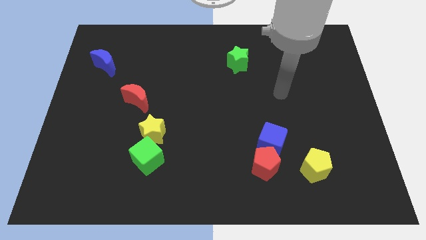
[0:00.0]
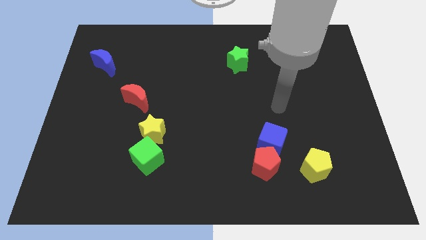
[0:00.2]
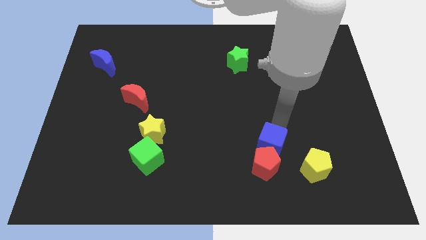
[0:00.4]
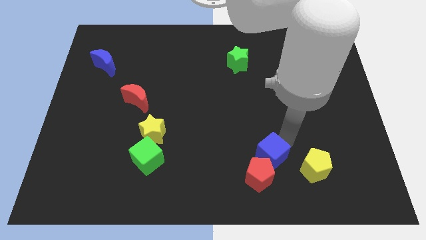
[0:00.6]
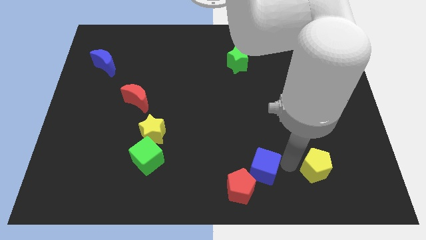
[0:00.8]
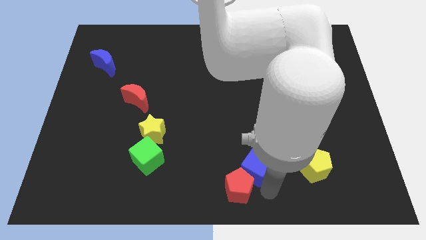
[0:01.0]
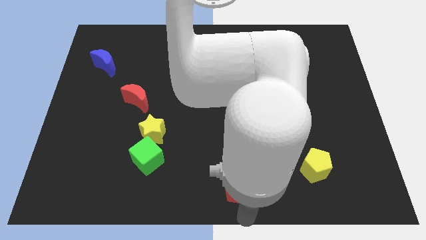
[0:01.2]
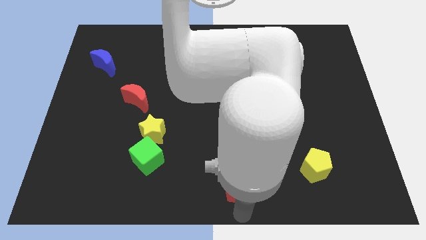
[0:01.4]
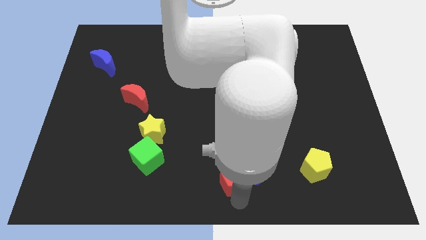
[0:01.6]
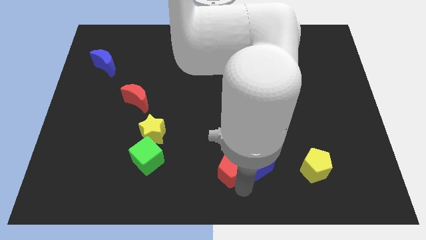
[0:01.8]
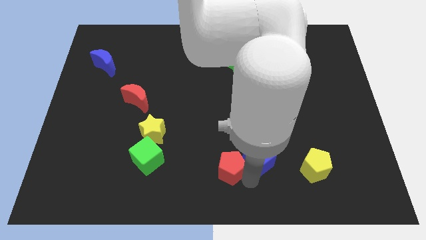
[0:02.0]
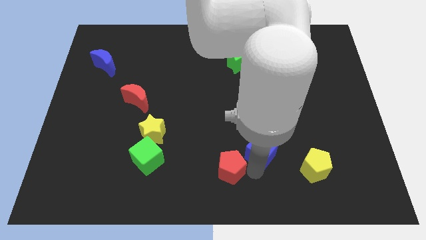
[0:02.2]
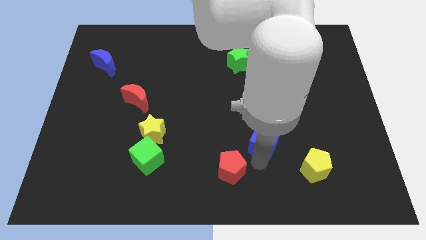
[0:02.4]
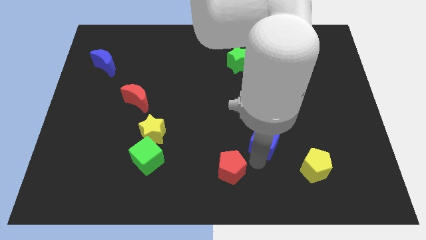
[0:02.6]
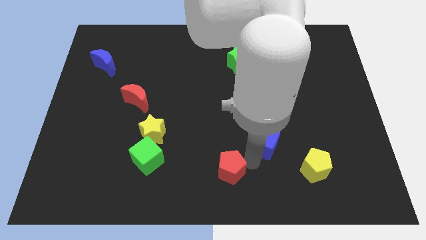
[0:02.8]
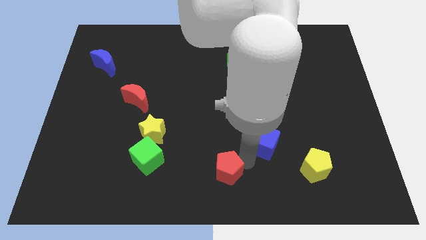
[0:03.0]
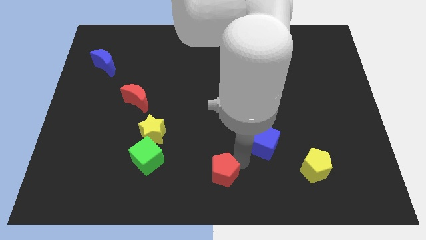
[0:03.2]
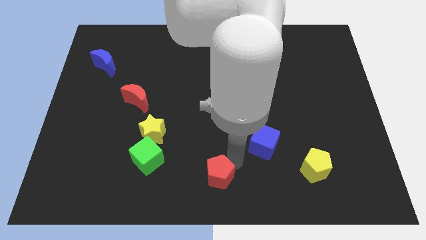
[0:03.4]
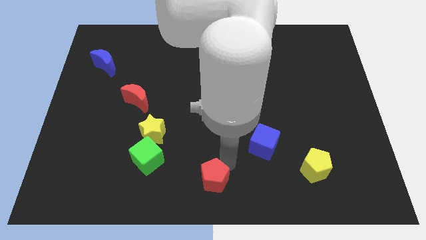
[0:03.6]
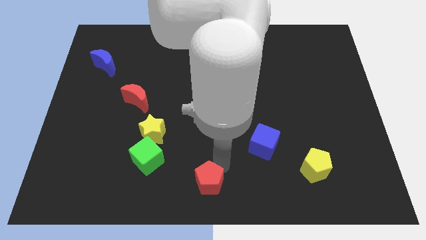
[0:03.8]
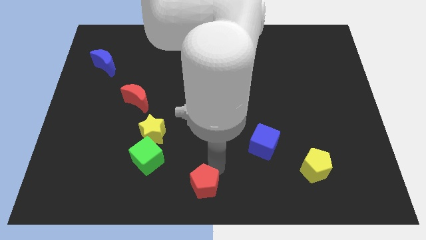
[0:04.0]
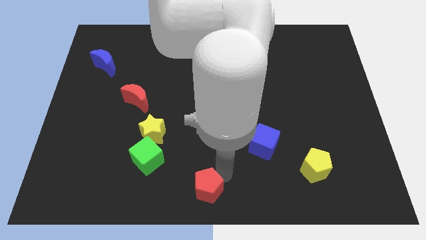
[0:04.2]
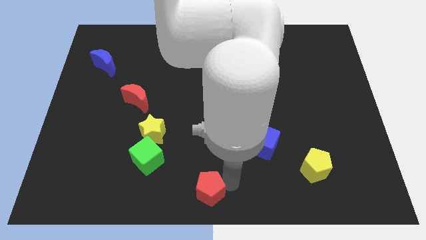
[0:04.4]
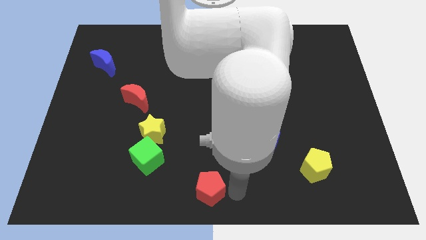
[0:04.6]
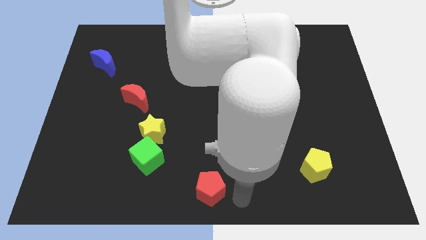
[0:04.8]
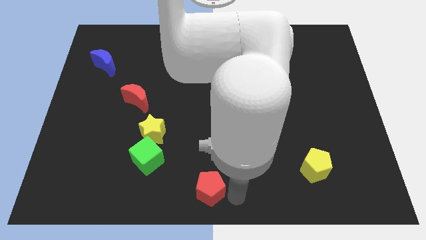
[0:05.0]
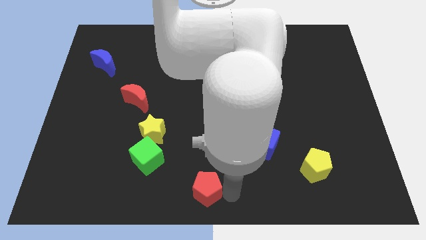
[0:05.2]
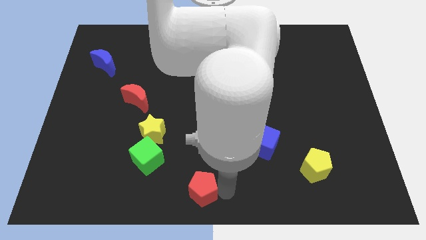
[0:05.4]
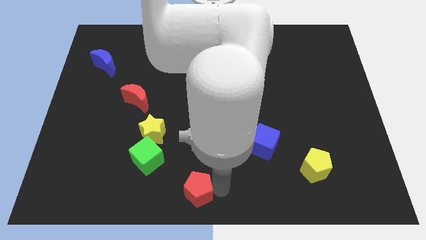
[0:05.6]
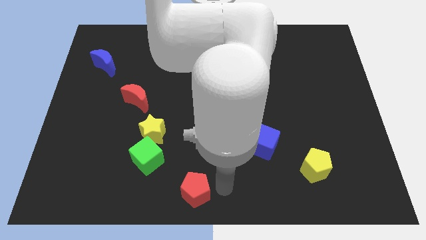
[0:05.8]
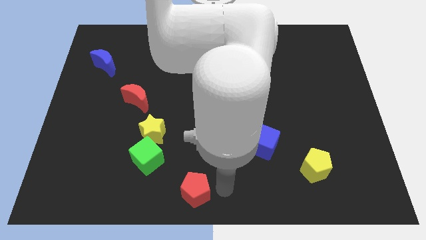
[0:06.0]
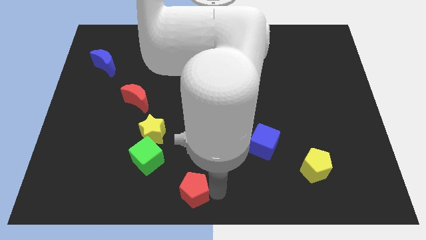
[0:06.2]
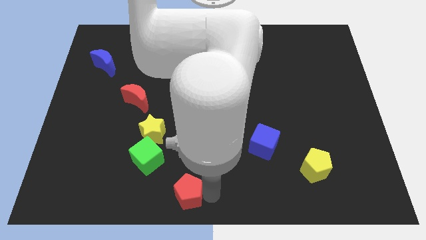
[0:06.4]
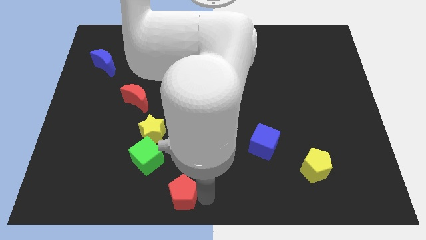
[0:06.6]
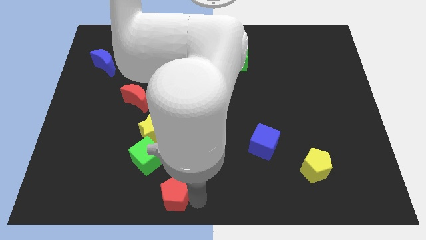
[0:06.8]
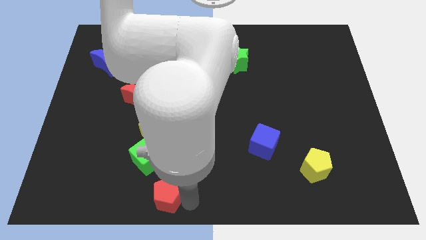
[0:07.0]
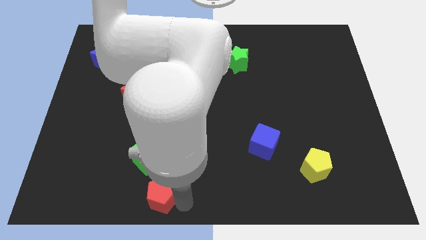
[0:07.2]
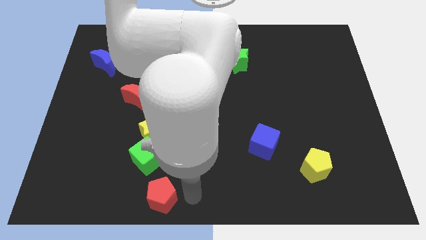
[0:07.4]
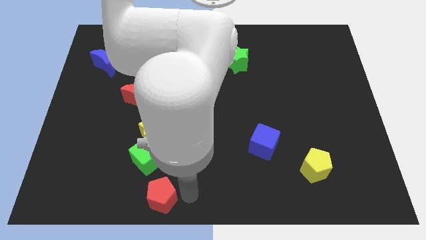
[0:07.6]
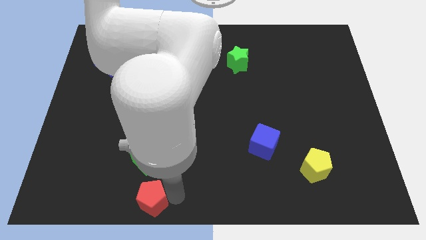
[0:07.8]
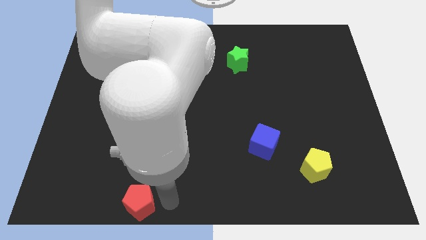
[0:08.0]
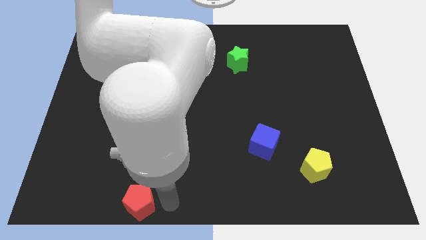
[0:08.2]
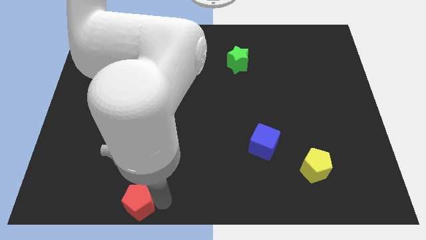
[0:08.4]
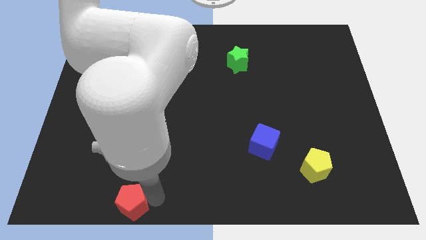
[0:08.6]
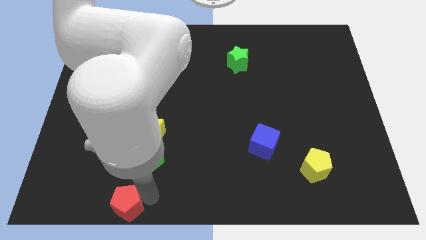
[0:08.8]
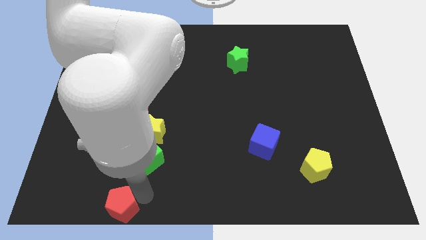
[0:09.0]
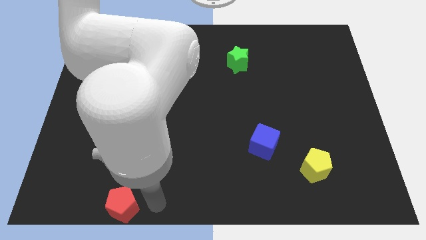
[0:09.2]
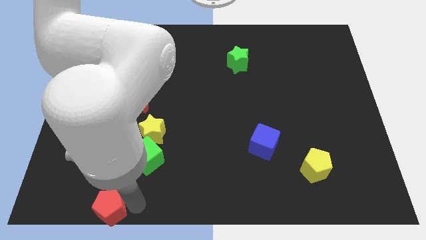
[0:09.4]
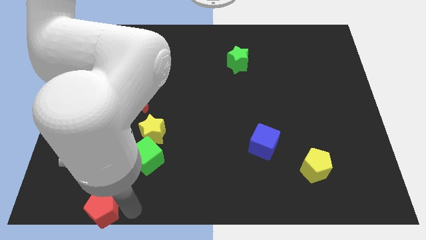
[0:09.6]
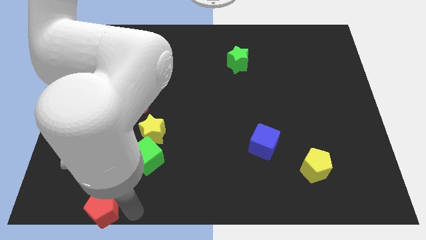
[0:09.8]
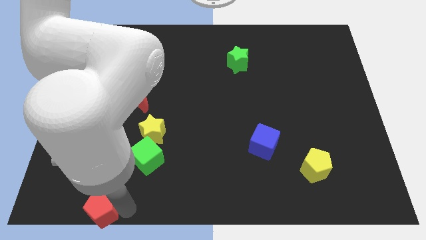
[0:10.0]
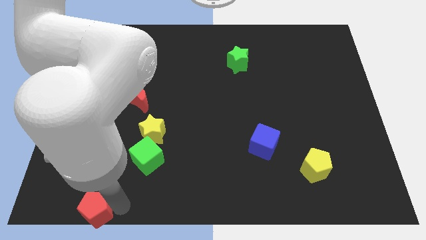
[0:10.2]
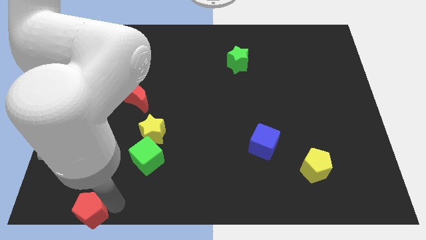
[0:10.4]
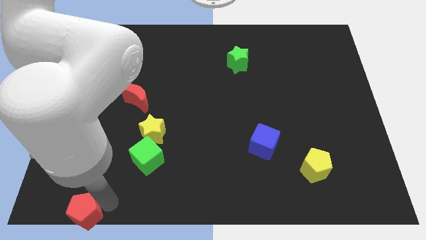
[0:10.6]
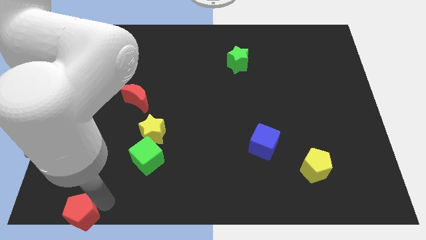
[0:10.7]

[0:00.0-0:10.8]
push the red pentagon to the bottom left

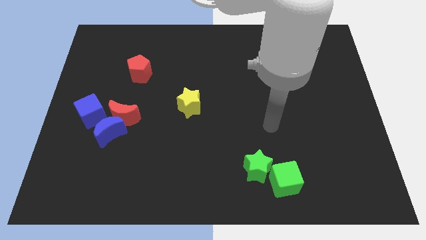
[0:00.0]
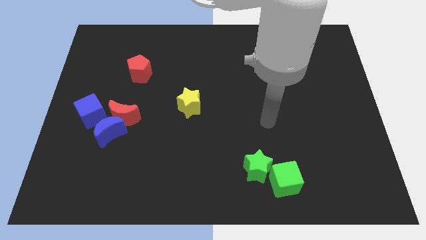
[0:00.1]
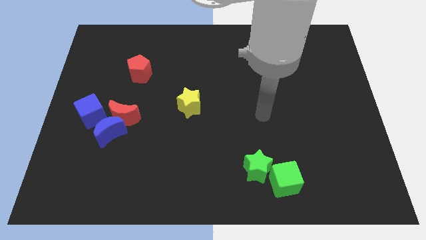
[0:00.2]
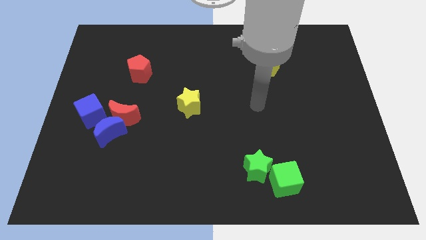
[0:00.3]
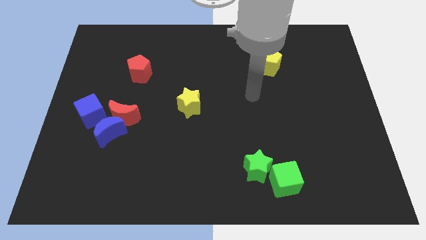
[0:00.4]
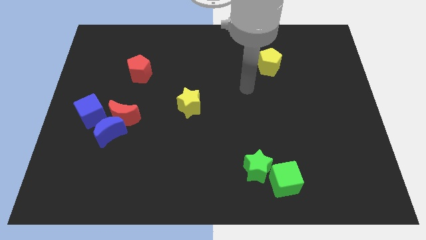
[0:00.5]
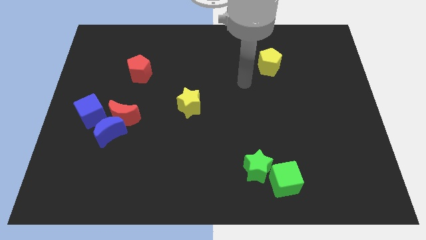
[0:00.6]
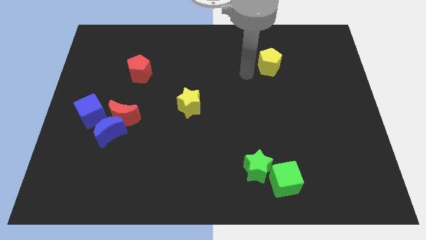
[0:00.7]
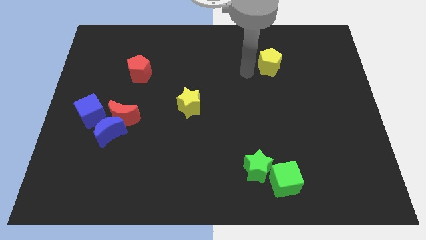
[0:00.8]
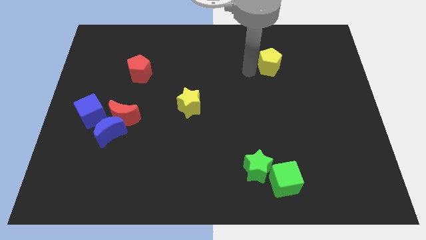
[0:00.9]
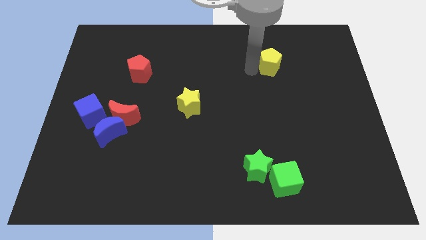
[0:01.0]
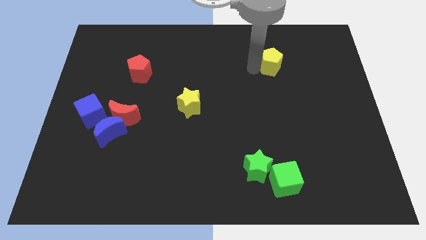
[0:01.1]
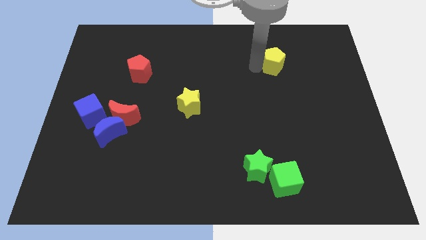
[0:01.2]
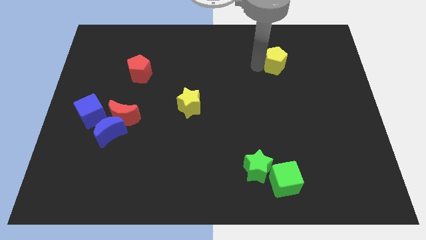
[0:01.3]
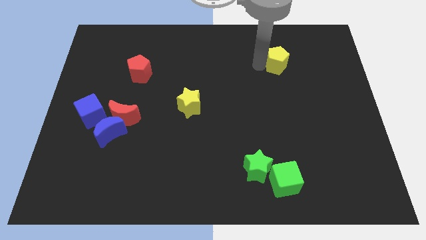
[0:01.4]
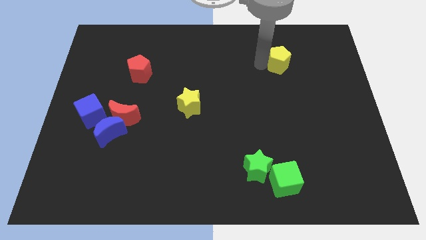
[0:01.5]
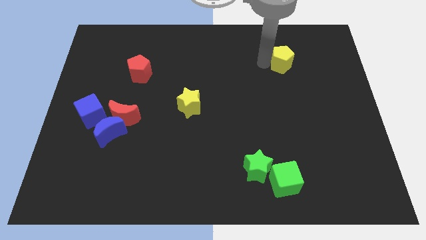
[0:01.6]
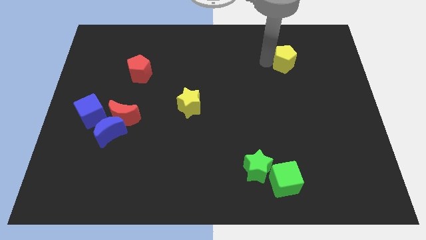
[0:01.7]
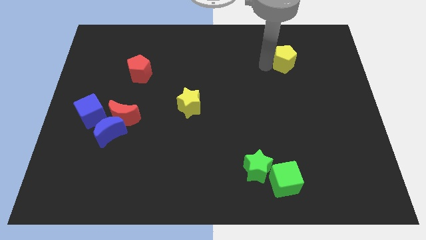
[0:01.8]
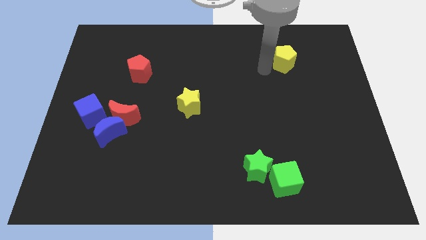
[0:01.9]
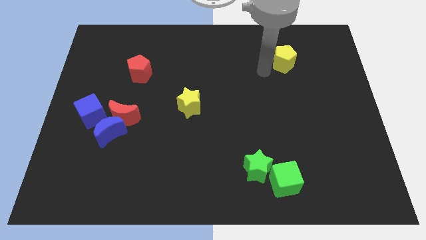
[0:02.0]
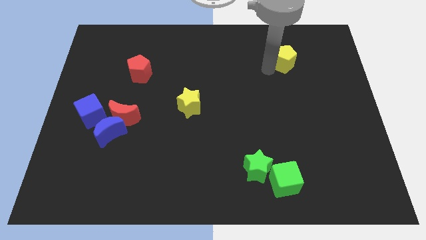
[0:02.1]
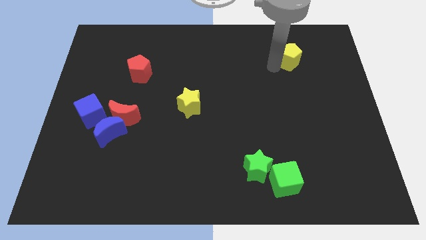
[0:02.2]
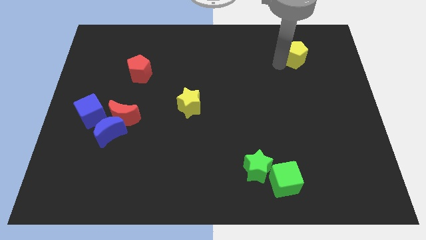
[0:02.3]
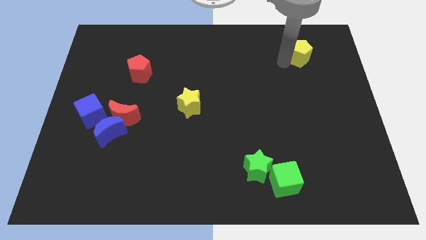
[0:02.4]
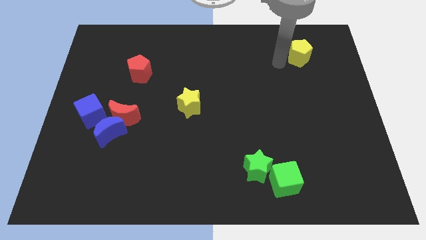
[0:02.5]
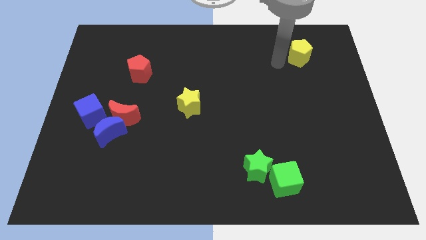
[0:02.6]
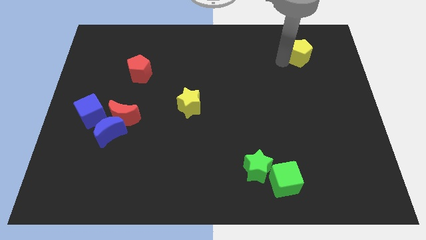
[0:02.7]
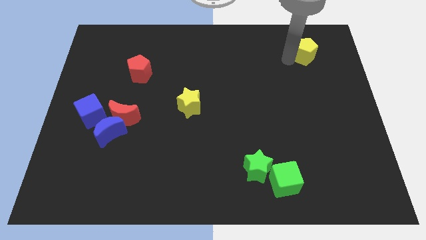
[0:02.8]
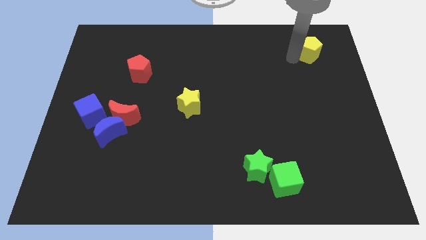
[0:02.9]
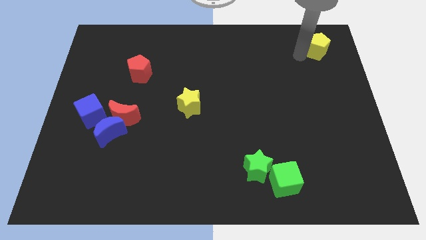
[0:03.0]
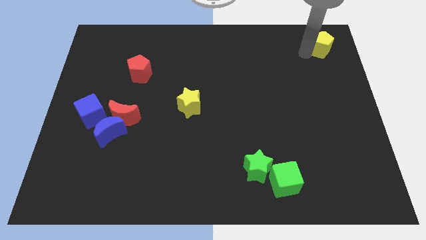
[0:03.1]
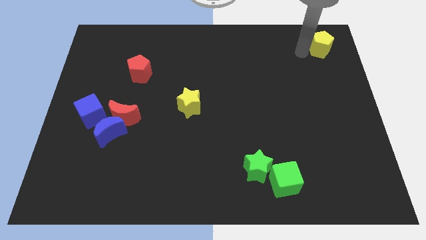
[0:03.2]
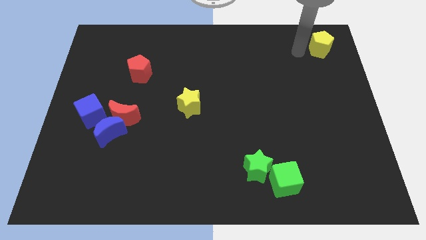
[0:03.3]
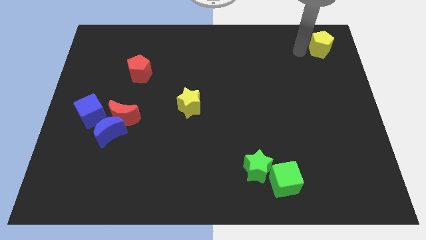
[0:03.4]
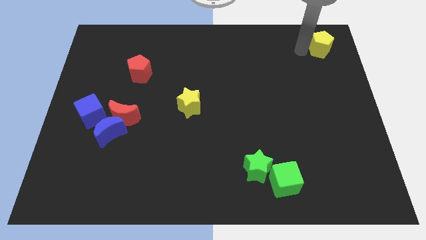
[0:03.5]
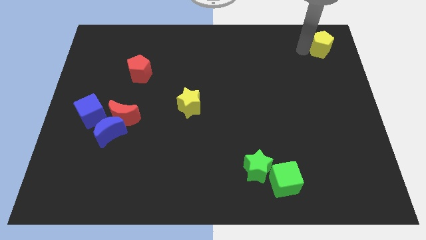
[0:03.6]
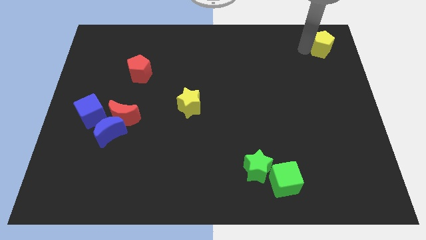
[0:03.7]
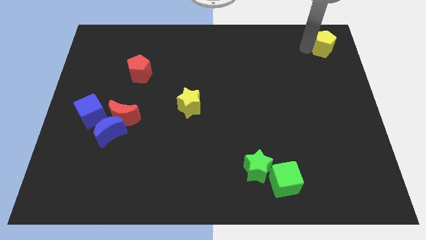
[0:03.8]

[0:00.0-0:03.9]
push the yellow pentagon to the top right
